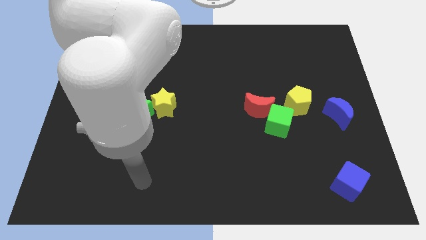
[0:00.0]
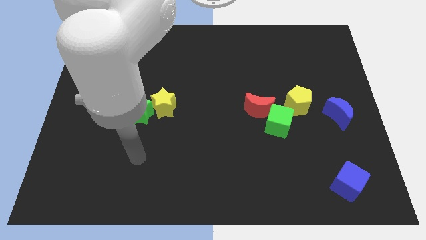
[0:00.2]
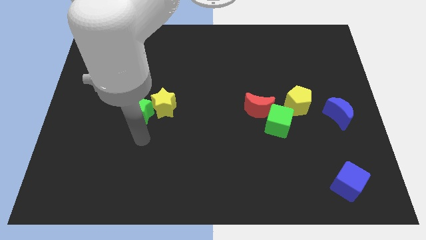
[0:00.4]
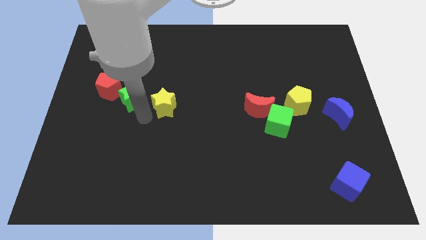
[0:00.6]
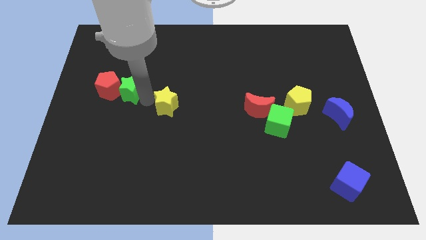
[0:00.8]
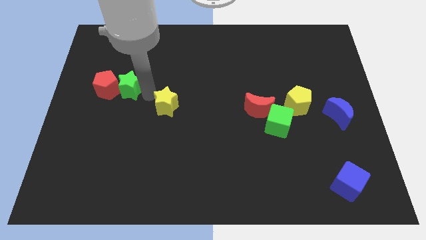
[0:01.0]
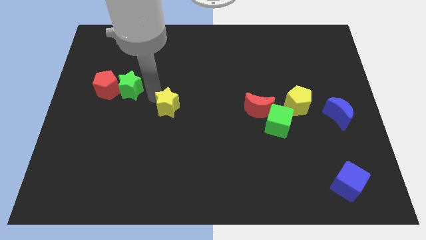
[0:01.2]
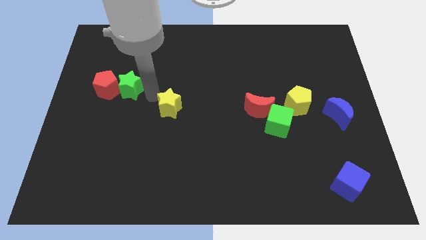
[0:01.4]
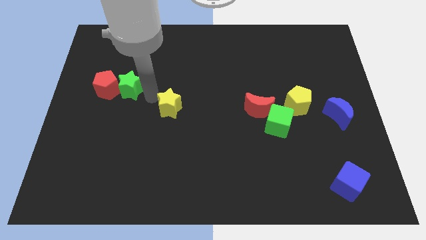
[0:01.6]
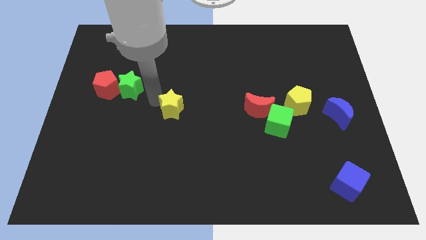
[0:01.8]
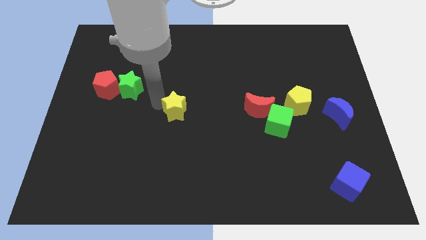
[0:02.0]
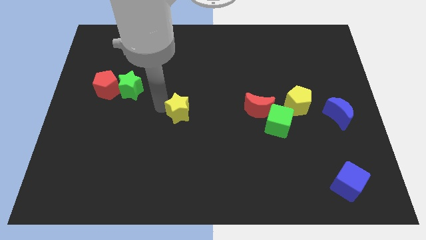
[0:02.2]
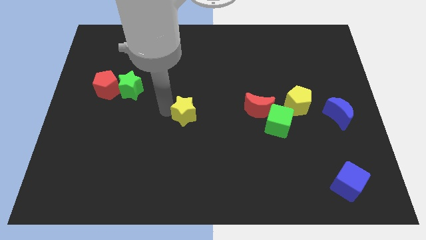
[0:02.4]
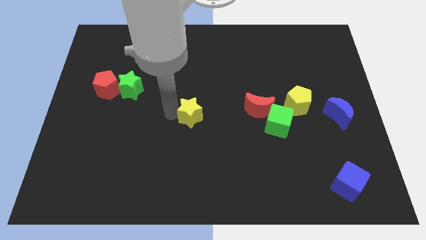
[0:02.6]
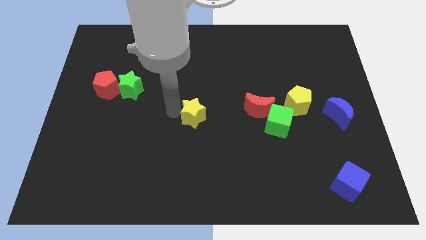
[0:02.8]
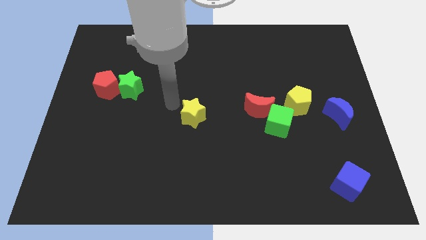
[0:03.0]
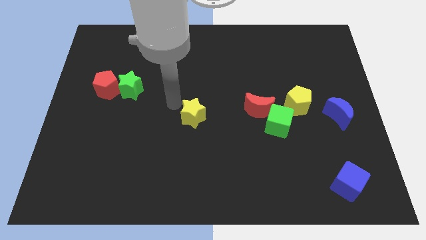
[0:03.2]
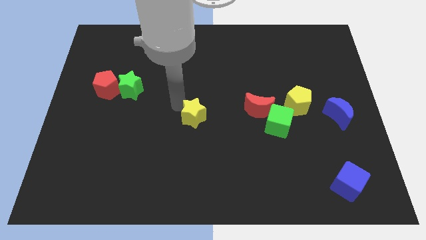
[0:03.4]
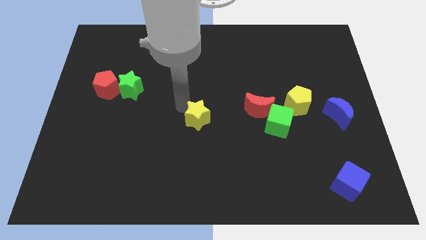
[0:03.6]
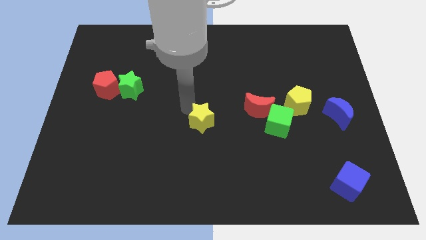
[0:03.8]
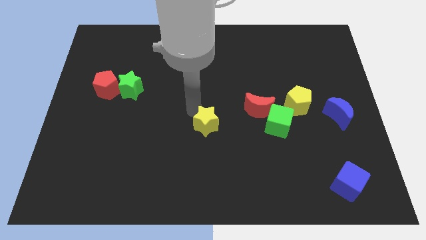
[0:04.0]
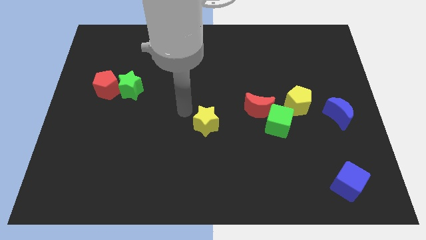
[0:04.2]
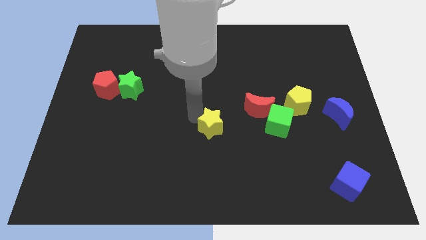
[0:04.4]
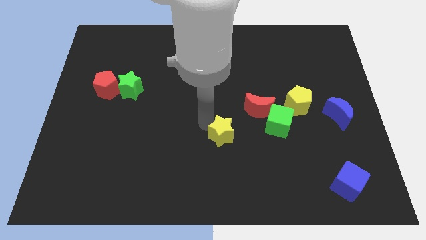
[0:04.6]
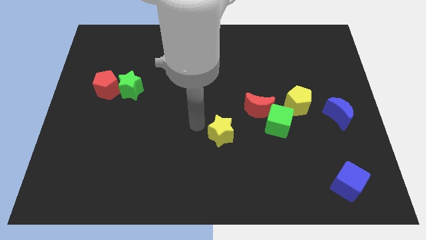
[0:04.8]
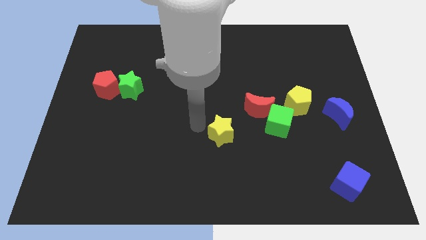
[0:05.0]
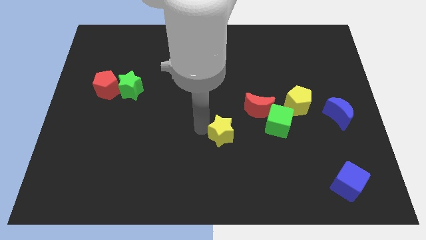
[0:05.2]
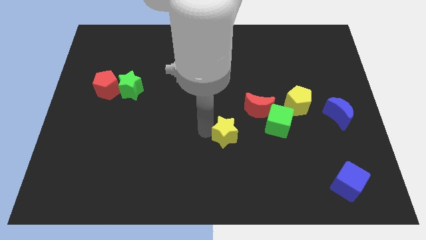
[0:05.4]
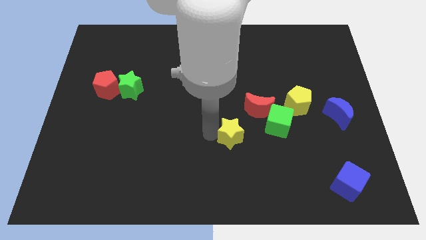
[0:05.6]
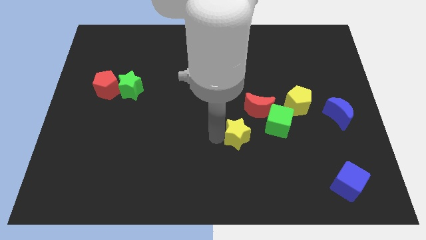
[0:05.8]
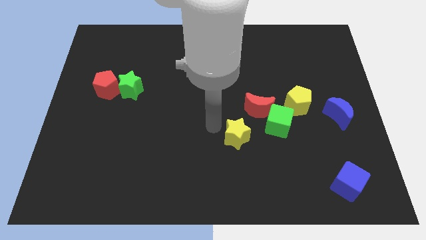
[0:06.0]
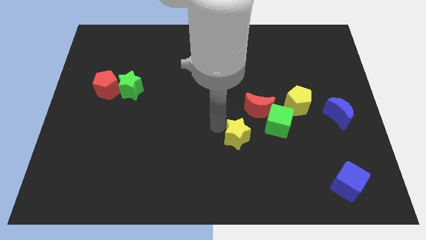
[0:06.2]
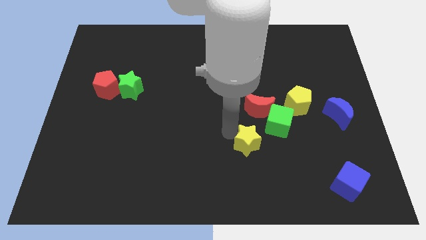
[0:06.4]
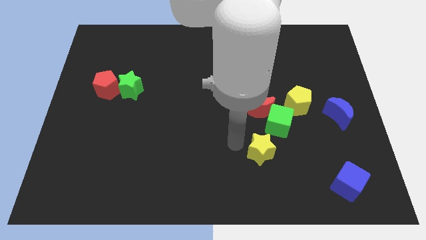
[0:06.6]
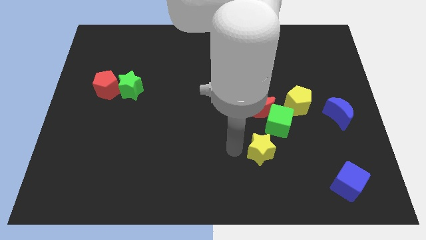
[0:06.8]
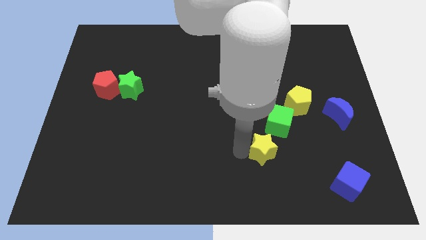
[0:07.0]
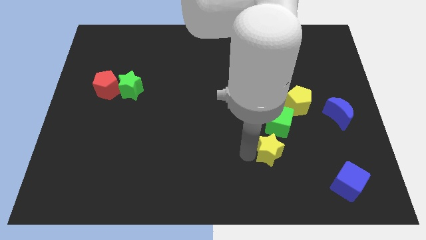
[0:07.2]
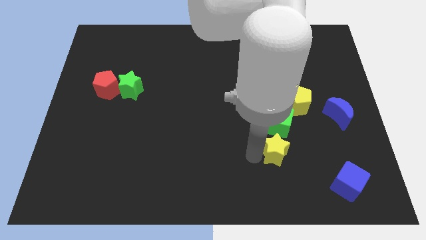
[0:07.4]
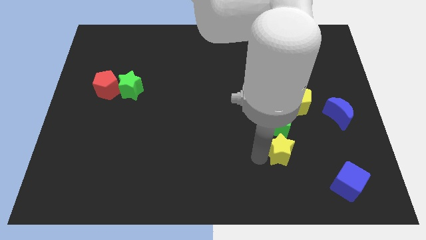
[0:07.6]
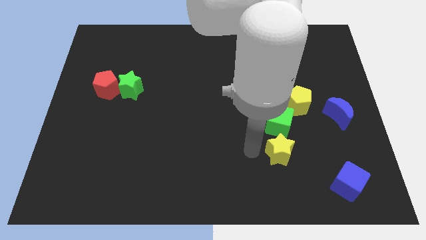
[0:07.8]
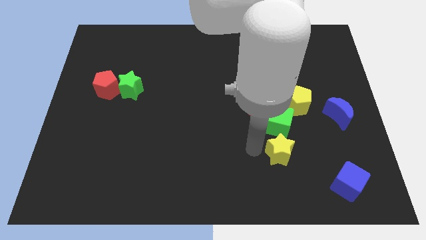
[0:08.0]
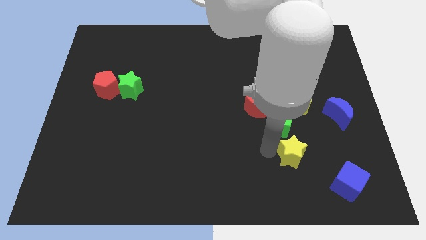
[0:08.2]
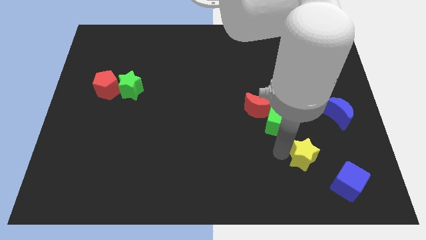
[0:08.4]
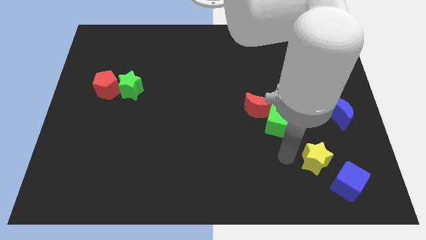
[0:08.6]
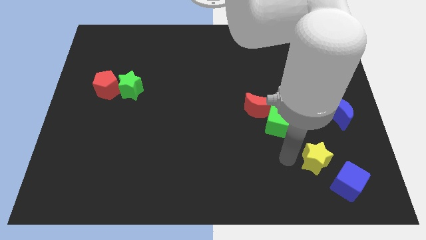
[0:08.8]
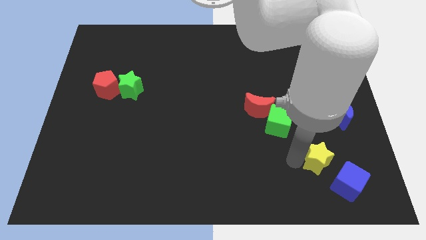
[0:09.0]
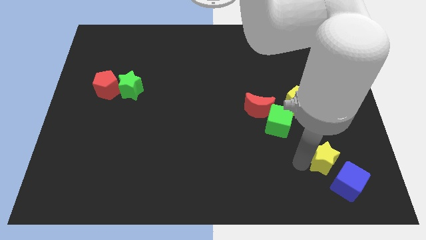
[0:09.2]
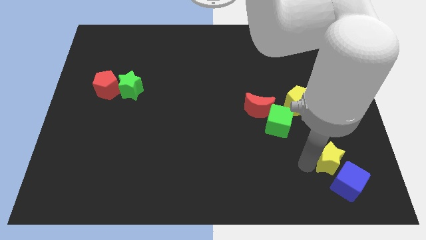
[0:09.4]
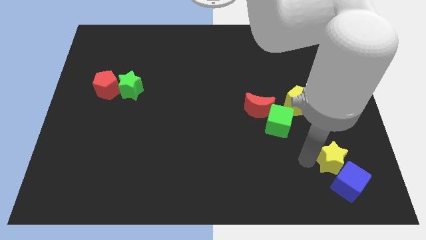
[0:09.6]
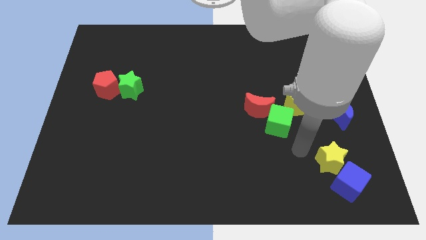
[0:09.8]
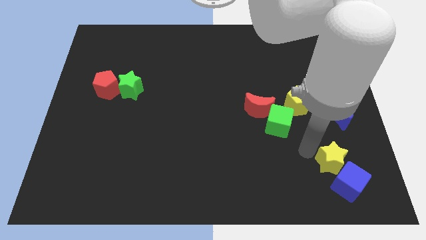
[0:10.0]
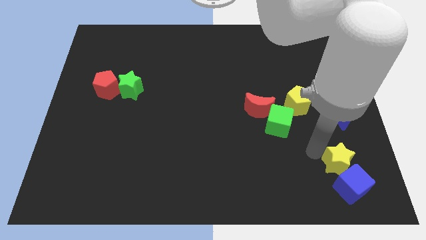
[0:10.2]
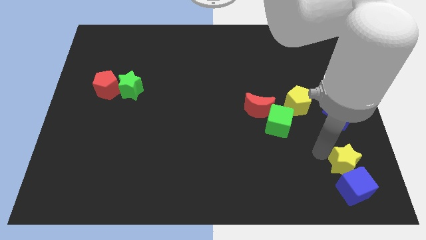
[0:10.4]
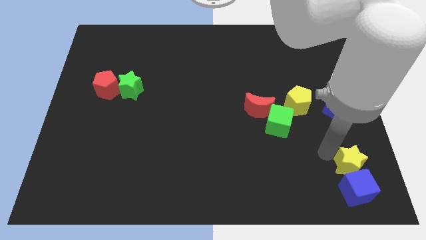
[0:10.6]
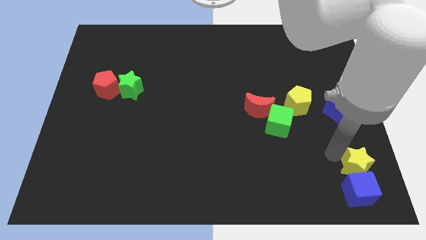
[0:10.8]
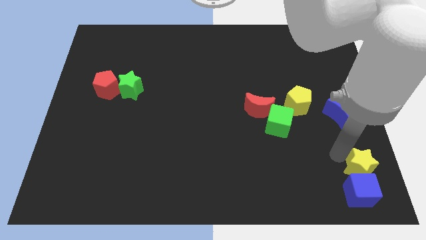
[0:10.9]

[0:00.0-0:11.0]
push the yellow star to the bottom right corner

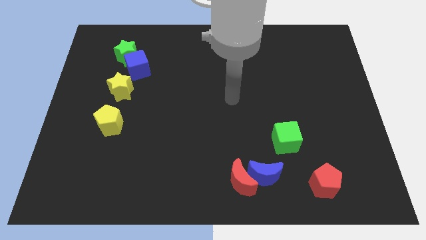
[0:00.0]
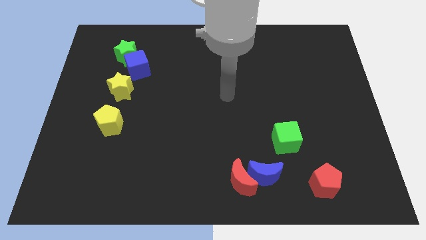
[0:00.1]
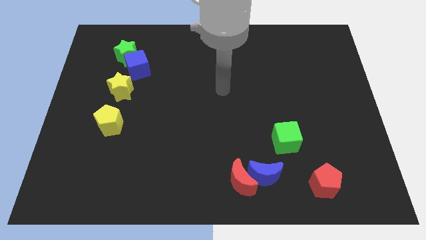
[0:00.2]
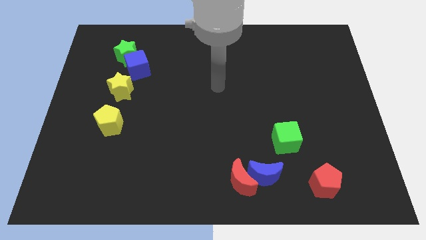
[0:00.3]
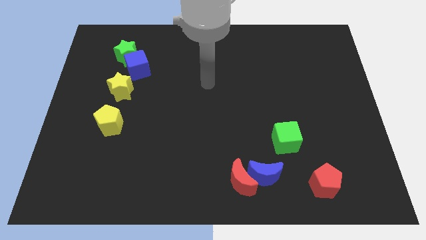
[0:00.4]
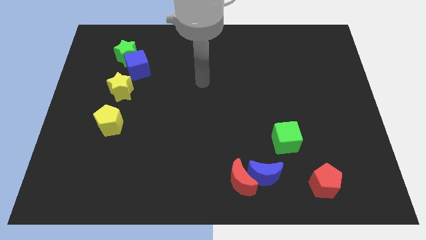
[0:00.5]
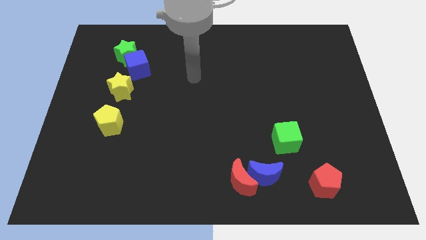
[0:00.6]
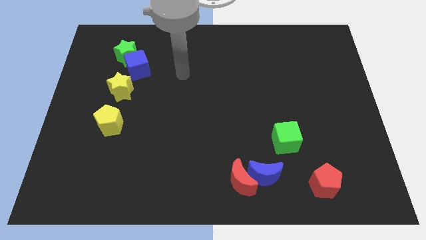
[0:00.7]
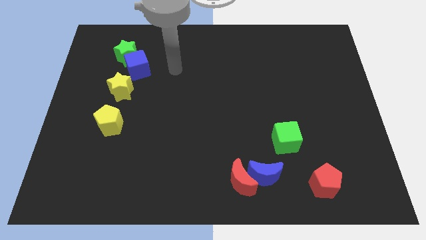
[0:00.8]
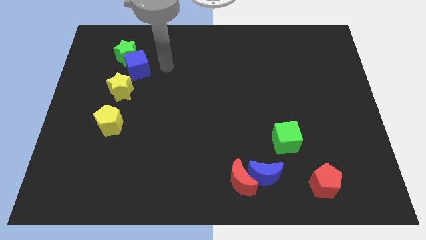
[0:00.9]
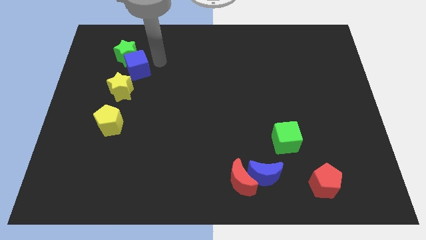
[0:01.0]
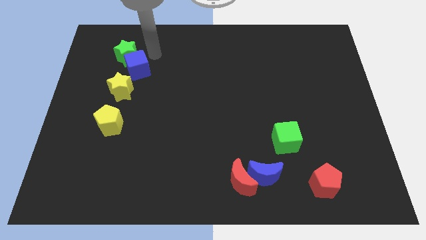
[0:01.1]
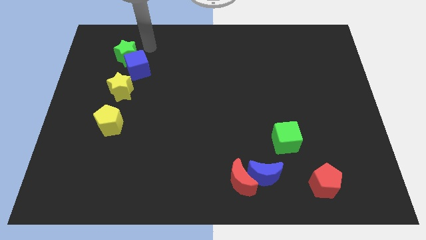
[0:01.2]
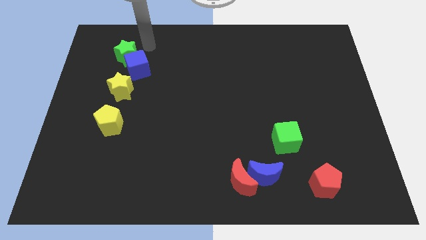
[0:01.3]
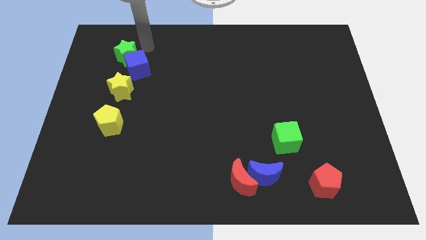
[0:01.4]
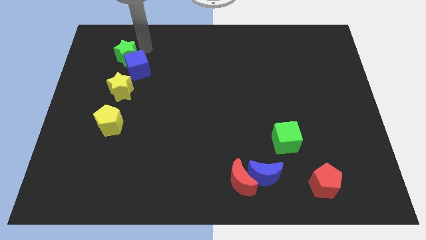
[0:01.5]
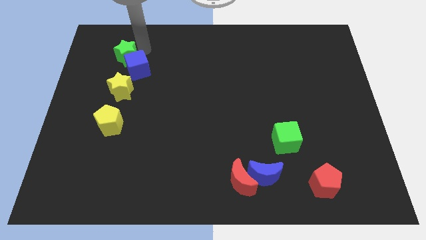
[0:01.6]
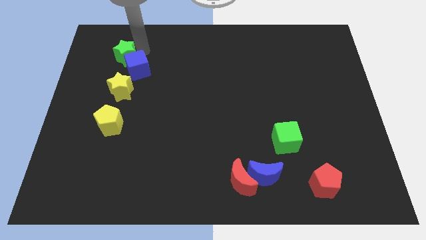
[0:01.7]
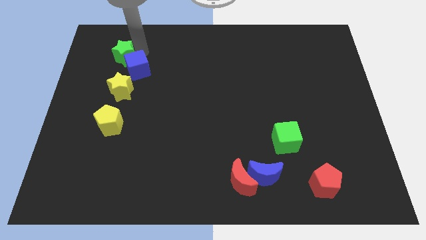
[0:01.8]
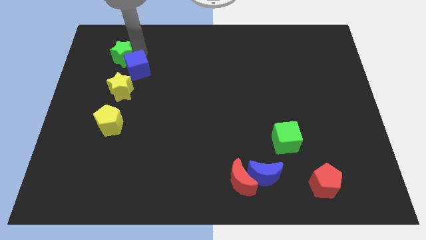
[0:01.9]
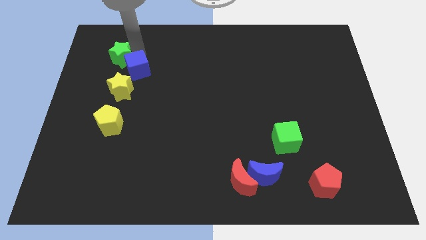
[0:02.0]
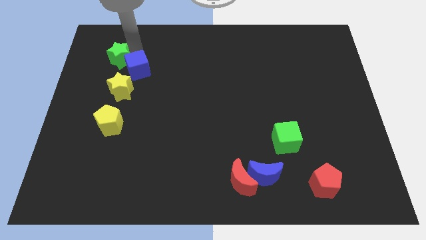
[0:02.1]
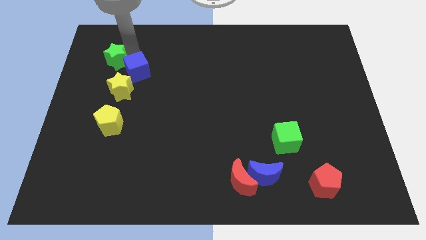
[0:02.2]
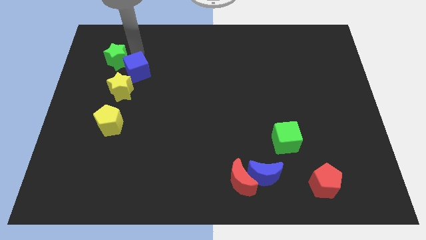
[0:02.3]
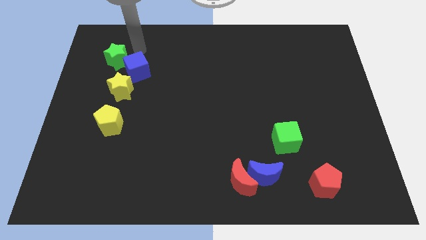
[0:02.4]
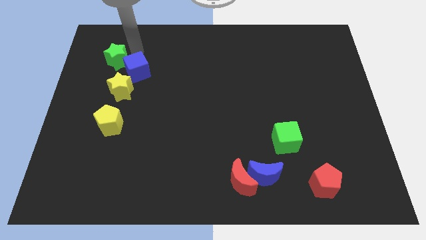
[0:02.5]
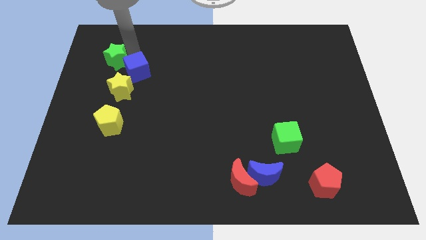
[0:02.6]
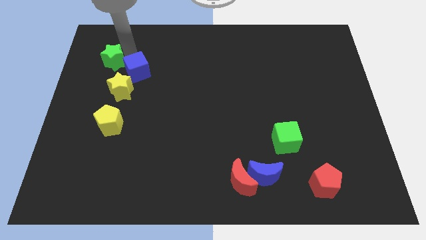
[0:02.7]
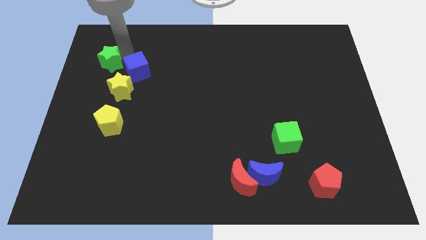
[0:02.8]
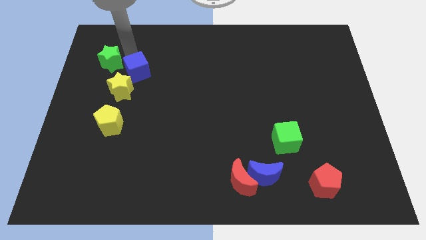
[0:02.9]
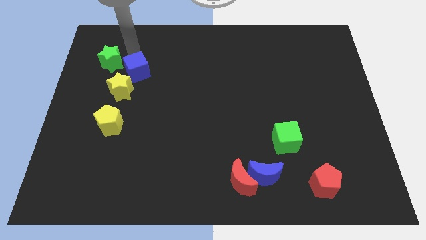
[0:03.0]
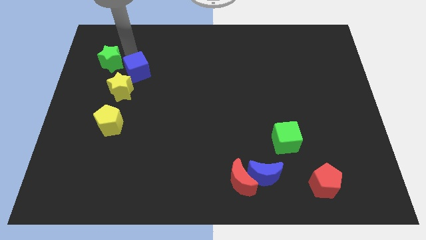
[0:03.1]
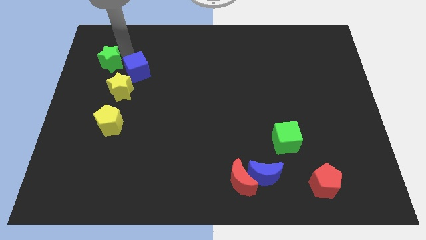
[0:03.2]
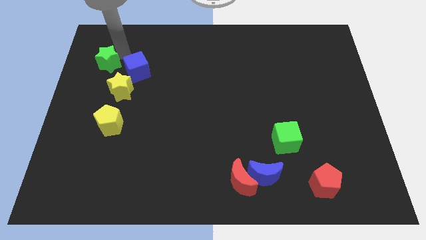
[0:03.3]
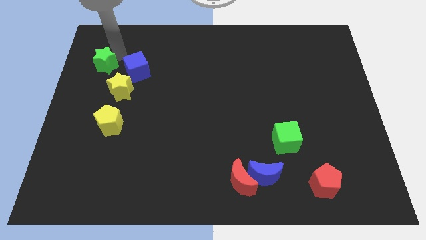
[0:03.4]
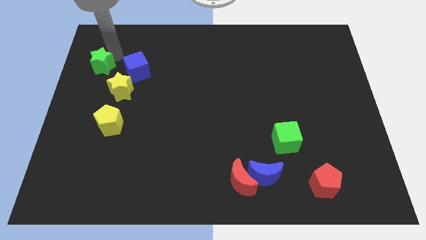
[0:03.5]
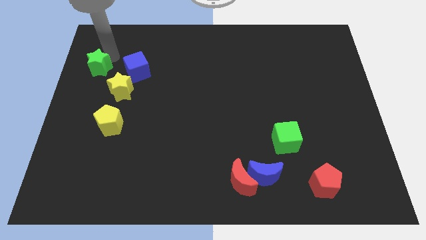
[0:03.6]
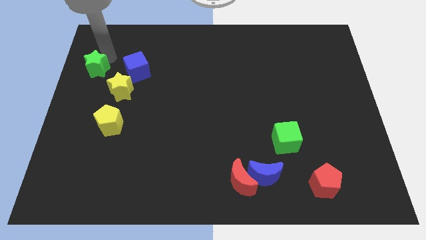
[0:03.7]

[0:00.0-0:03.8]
put the green star to the left side
